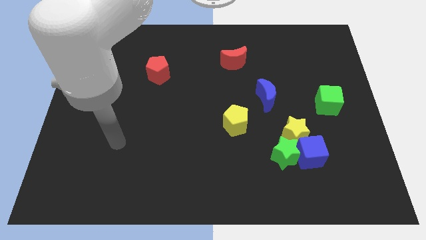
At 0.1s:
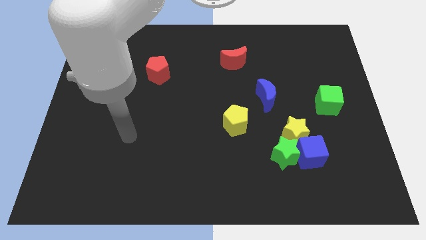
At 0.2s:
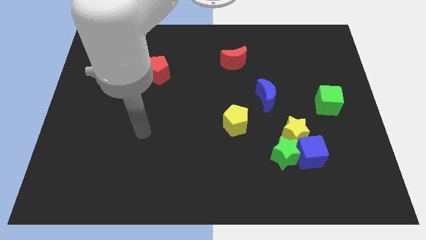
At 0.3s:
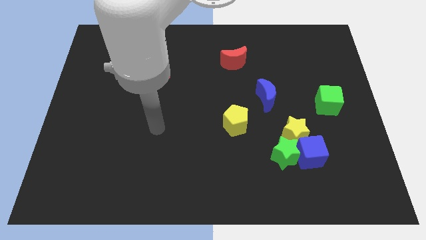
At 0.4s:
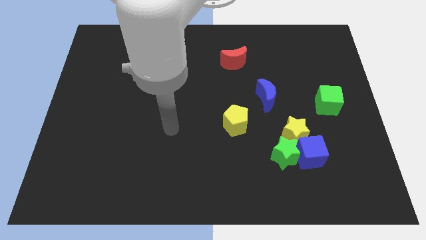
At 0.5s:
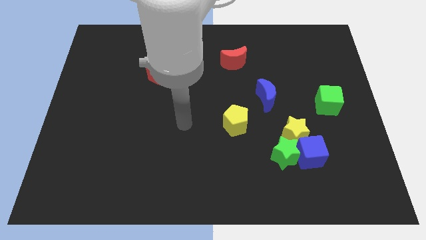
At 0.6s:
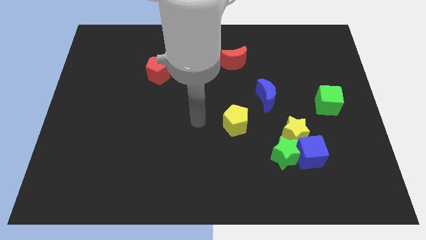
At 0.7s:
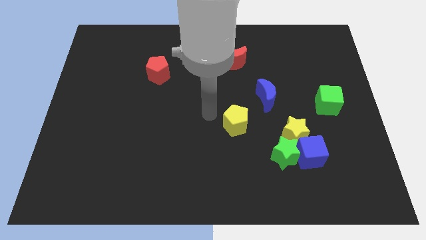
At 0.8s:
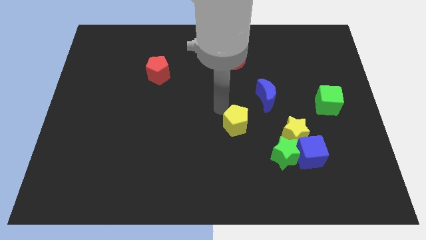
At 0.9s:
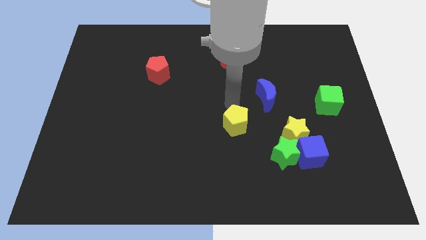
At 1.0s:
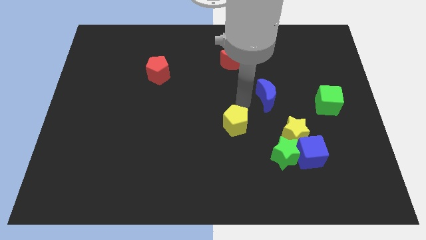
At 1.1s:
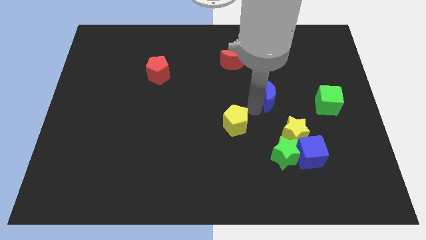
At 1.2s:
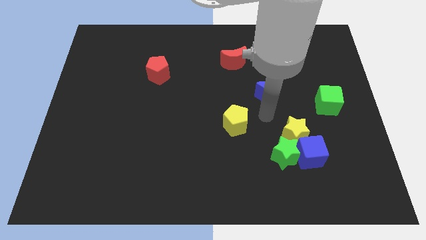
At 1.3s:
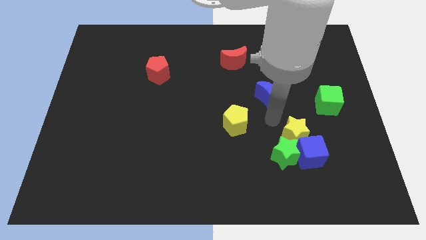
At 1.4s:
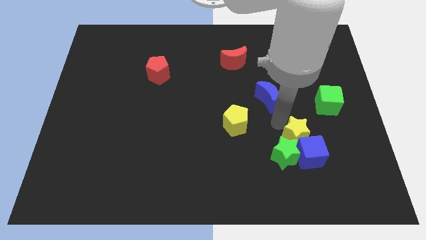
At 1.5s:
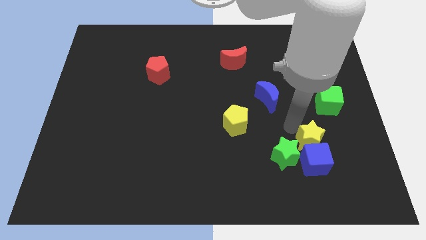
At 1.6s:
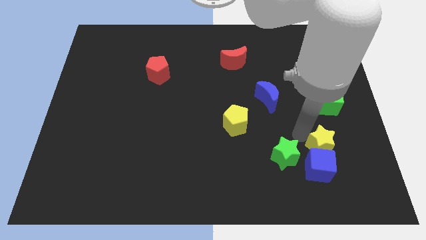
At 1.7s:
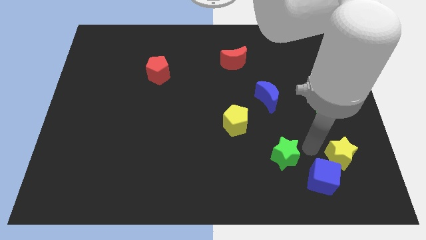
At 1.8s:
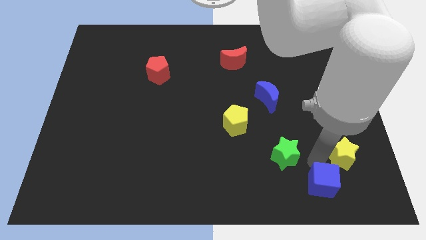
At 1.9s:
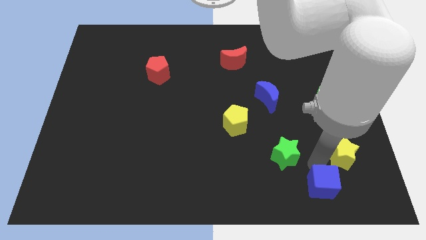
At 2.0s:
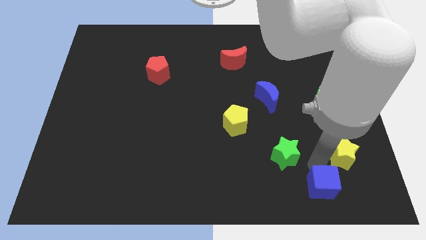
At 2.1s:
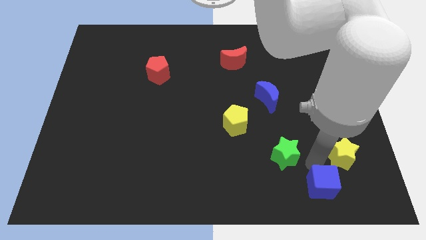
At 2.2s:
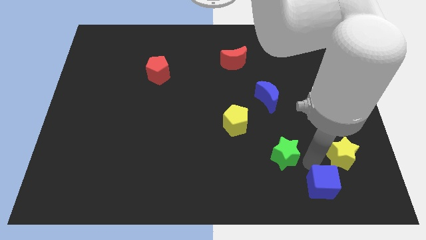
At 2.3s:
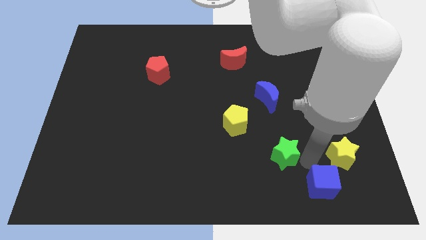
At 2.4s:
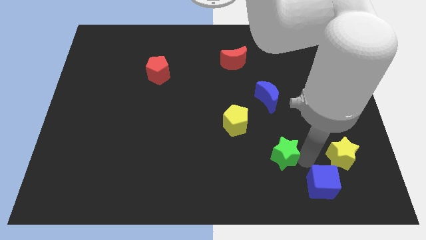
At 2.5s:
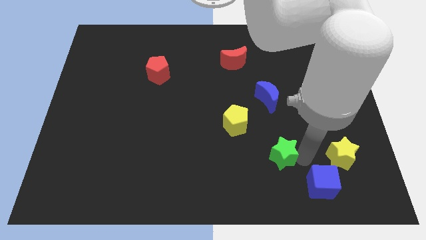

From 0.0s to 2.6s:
separate the green star from the blue cube and yellow star

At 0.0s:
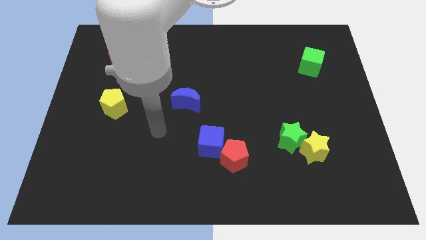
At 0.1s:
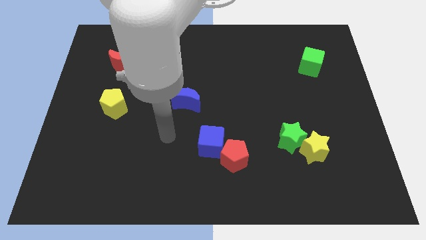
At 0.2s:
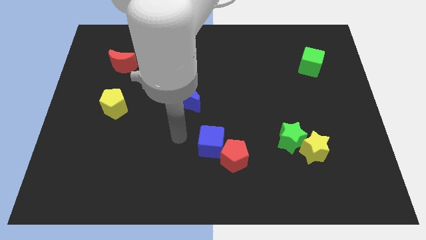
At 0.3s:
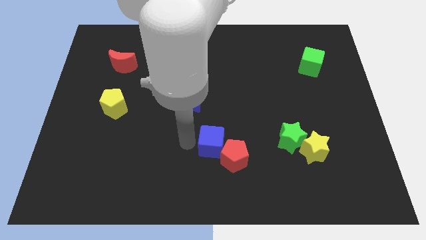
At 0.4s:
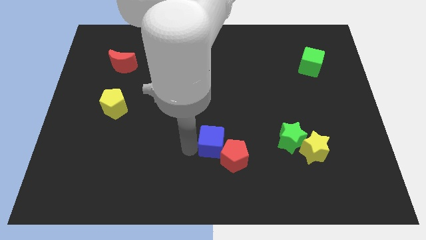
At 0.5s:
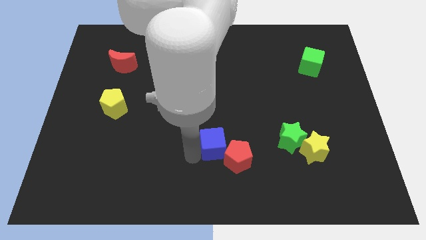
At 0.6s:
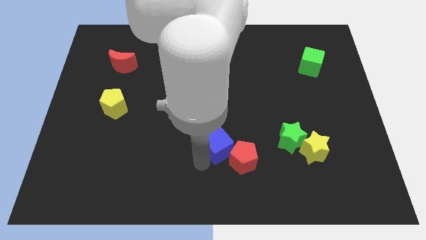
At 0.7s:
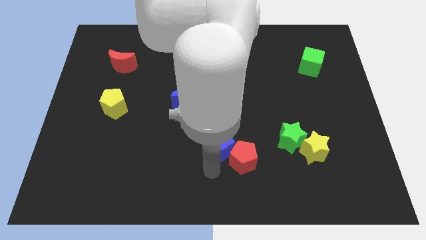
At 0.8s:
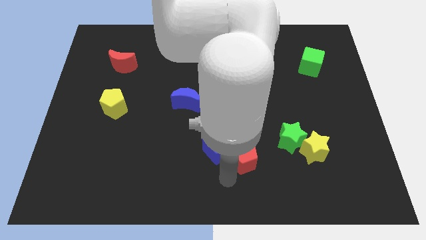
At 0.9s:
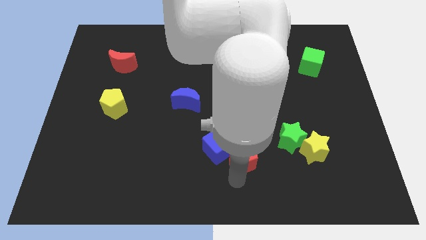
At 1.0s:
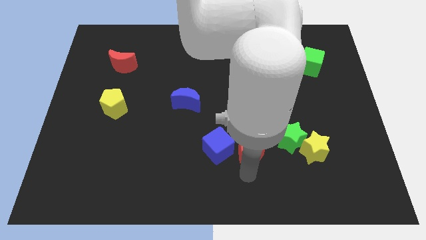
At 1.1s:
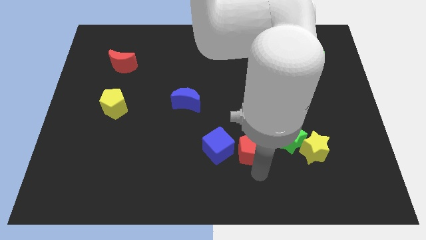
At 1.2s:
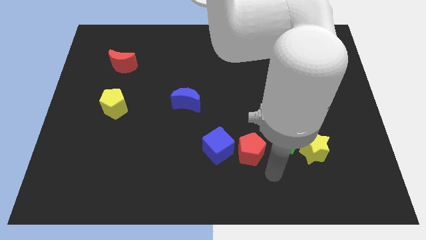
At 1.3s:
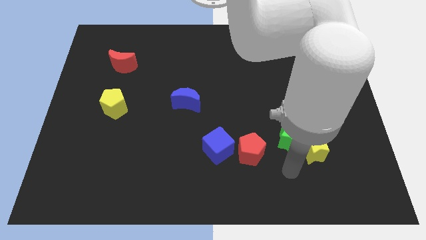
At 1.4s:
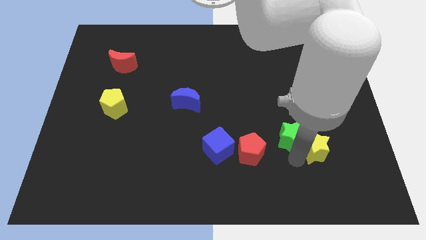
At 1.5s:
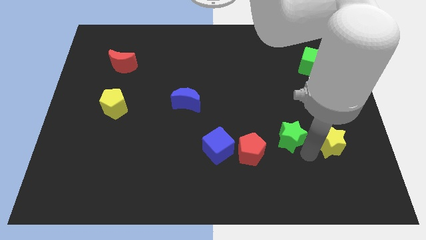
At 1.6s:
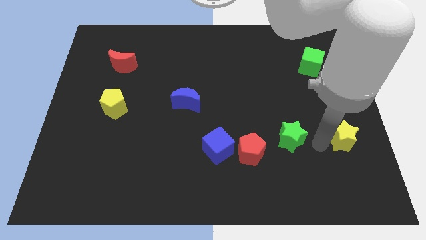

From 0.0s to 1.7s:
move the green star away from the yellow star

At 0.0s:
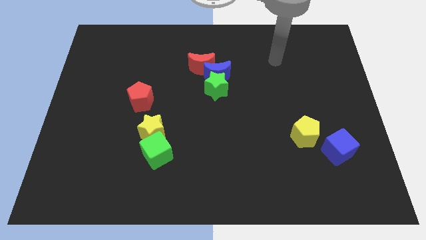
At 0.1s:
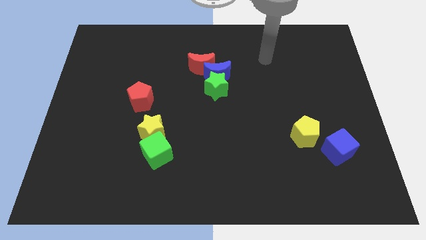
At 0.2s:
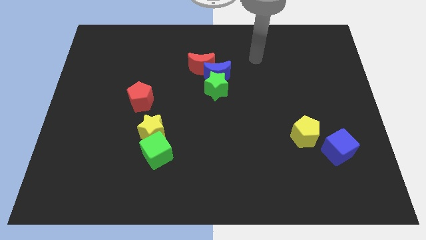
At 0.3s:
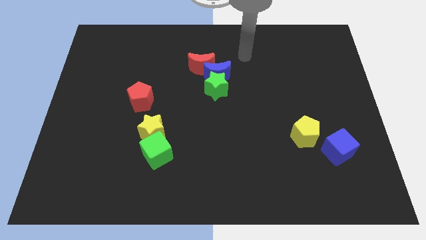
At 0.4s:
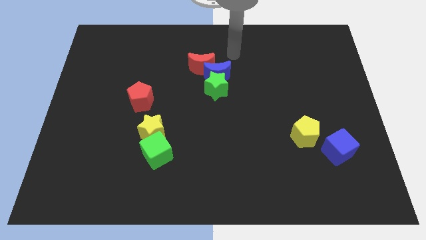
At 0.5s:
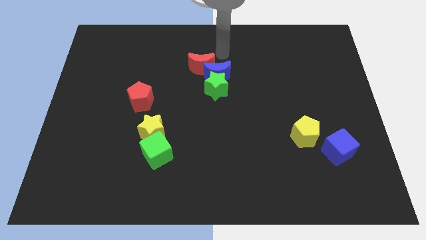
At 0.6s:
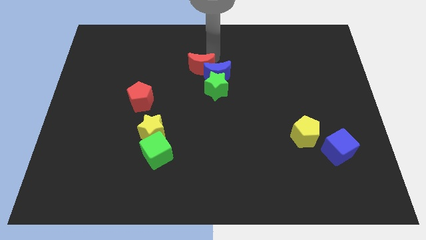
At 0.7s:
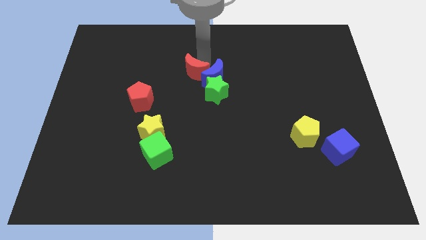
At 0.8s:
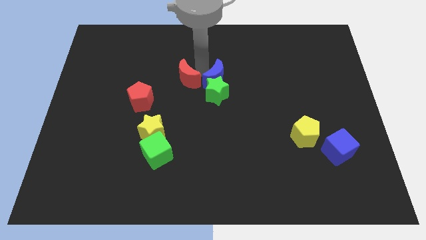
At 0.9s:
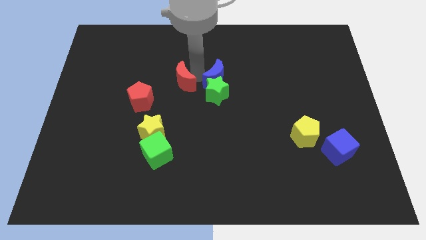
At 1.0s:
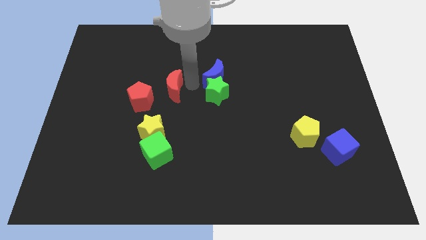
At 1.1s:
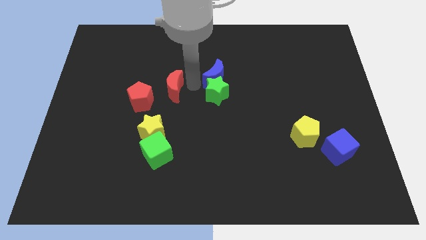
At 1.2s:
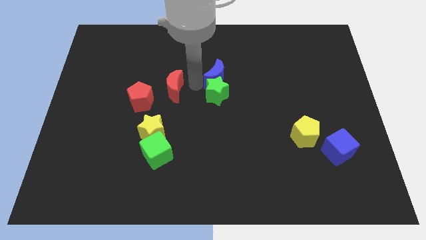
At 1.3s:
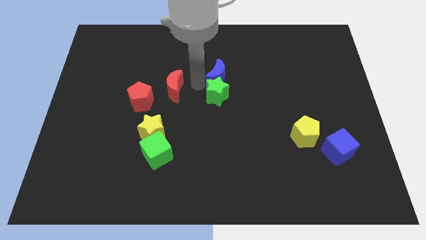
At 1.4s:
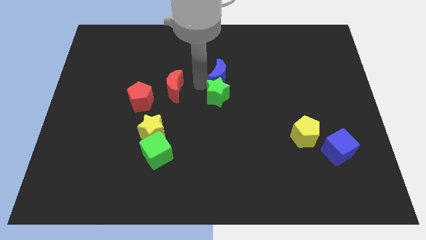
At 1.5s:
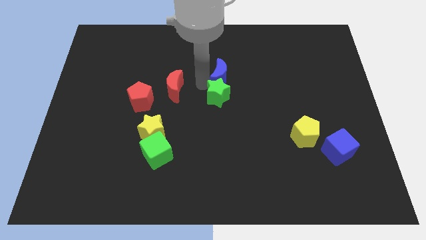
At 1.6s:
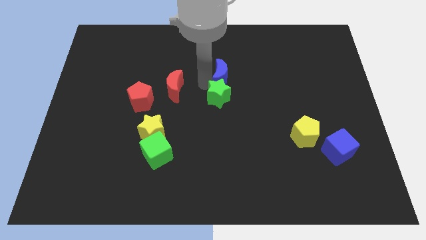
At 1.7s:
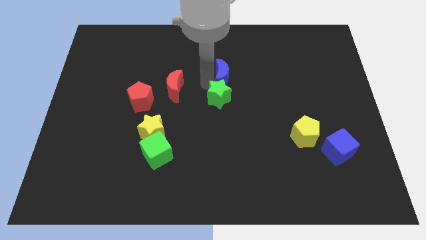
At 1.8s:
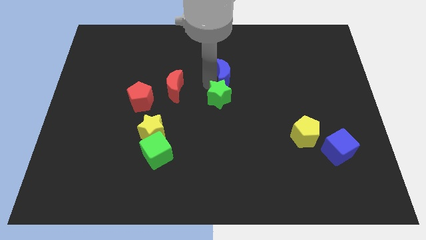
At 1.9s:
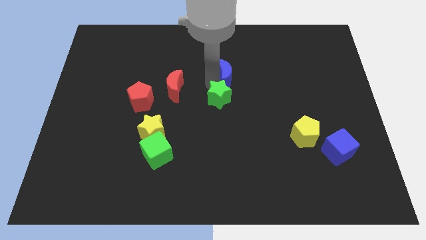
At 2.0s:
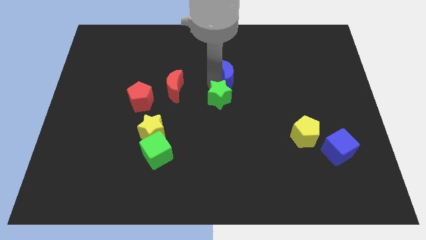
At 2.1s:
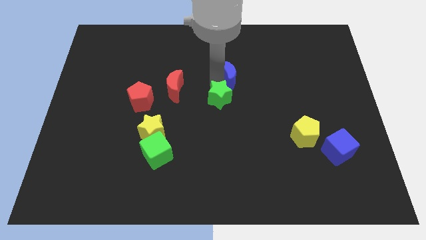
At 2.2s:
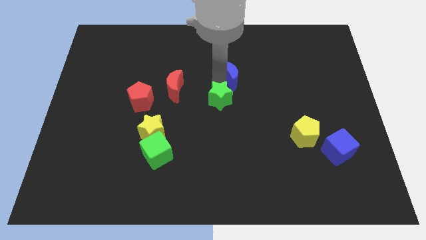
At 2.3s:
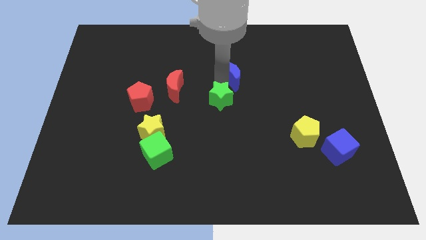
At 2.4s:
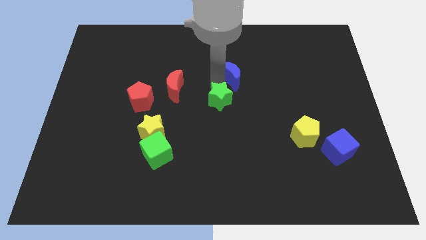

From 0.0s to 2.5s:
pull the blue moon apart from the green star and red moon

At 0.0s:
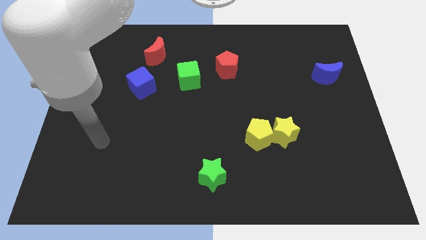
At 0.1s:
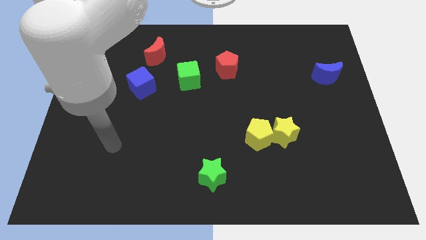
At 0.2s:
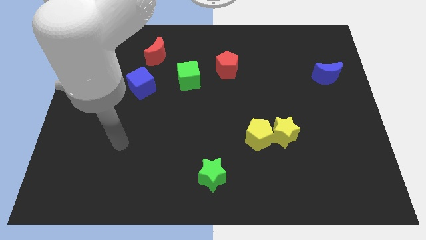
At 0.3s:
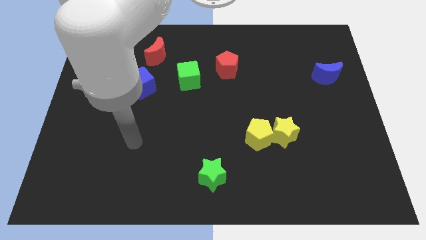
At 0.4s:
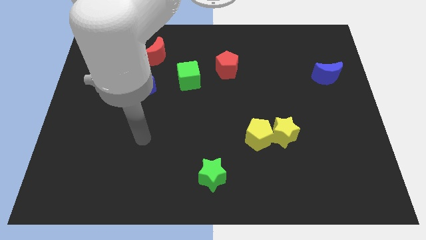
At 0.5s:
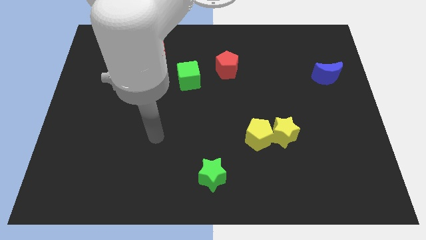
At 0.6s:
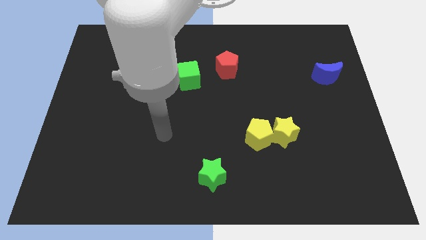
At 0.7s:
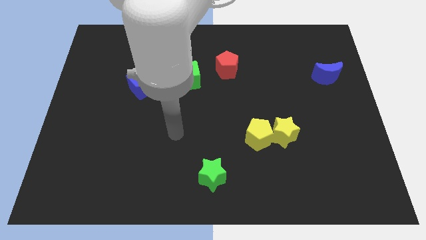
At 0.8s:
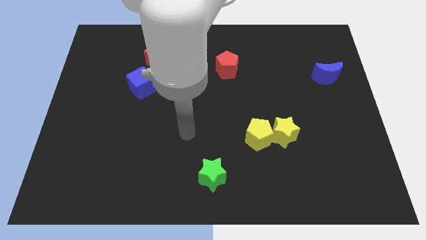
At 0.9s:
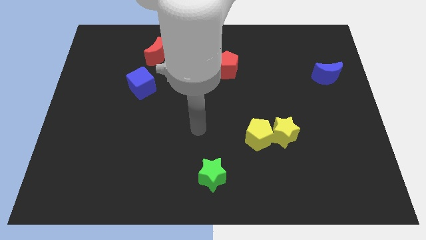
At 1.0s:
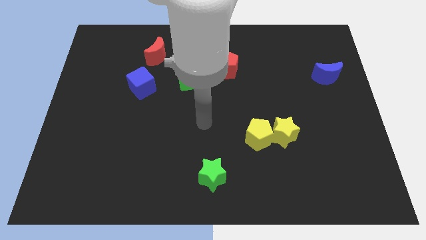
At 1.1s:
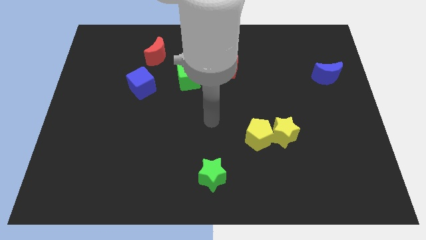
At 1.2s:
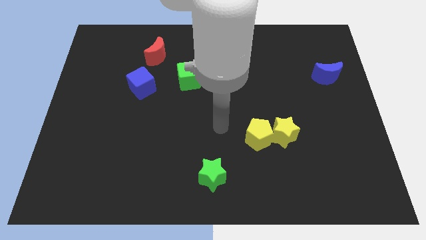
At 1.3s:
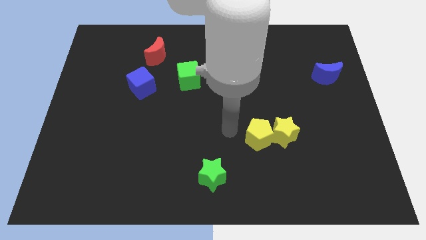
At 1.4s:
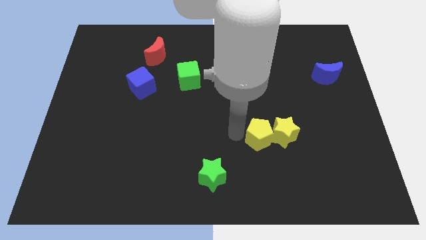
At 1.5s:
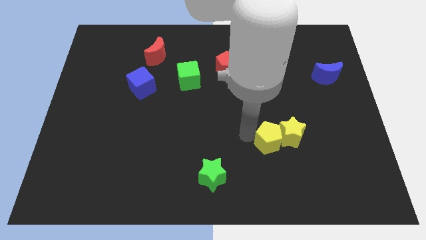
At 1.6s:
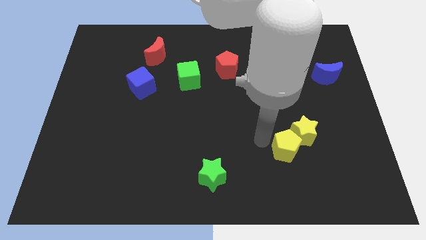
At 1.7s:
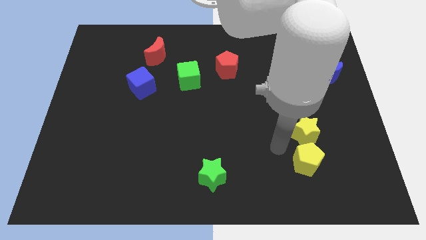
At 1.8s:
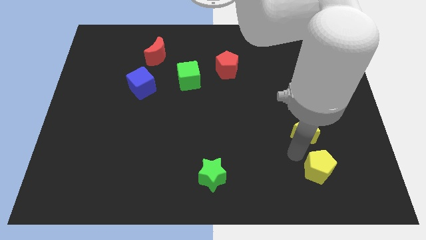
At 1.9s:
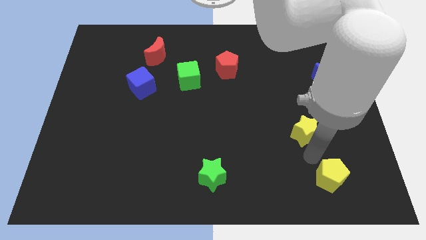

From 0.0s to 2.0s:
separate the yellow star from the yellow pentagon

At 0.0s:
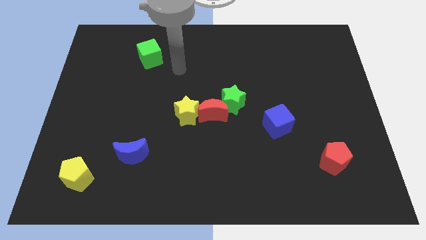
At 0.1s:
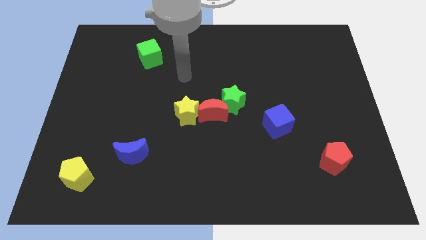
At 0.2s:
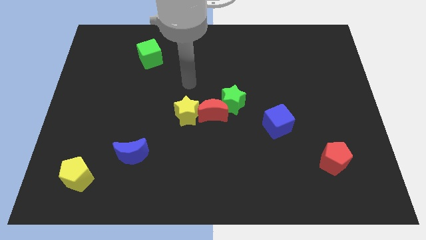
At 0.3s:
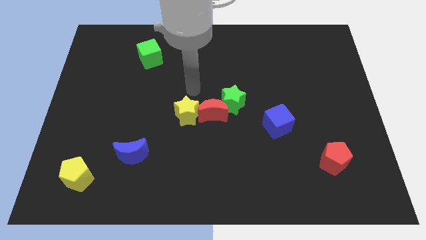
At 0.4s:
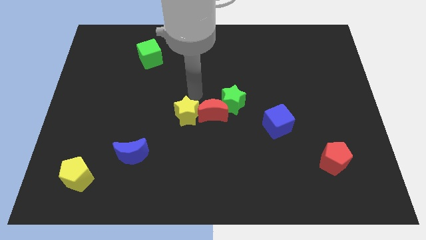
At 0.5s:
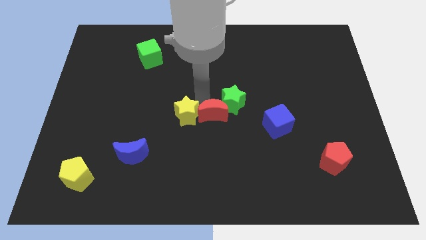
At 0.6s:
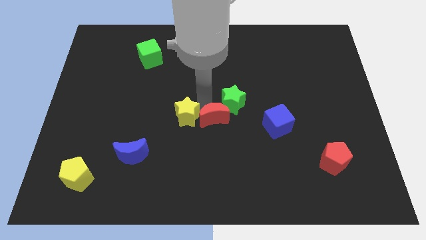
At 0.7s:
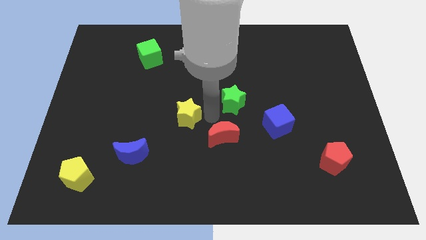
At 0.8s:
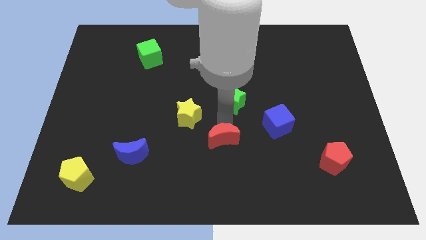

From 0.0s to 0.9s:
pull the green star apart from the red moon
